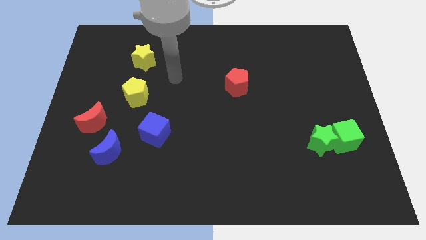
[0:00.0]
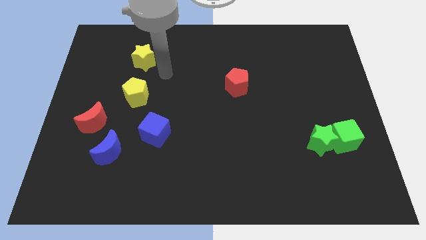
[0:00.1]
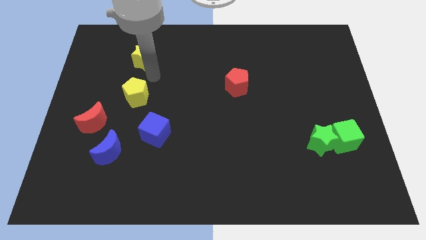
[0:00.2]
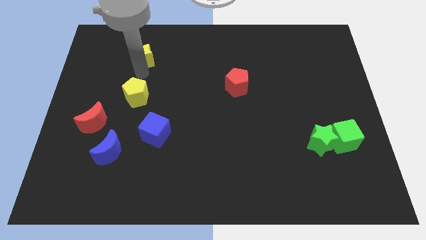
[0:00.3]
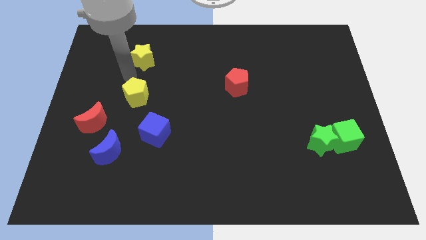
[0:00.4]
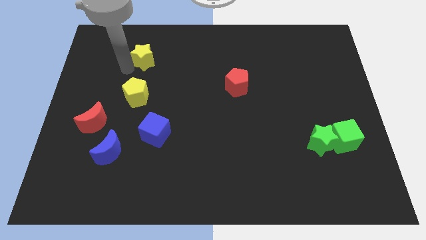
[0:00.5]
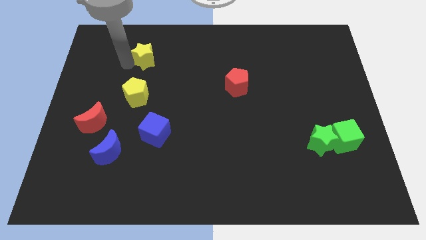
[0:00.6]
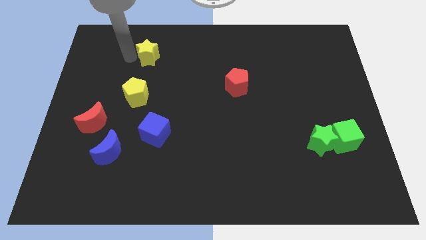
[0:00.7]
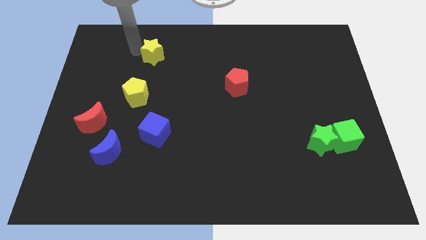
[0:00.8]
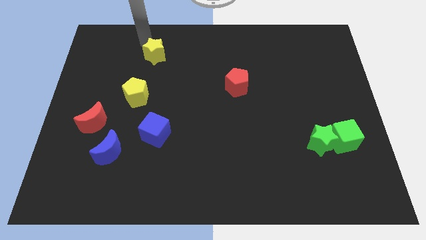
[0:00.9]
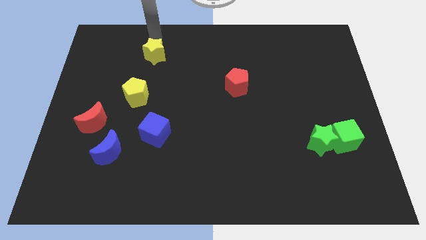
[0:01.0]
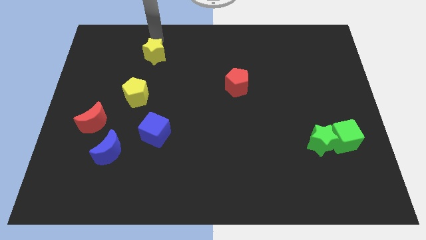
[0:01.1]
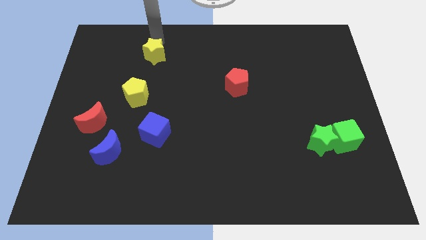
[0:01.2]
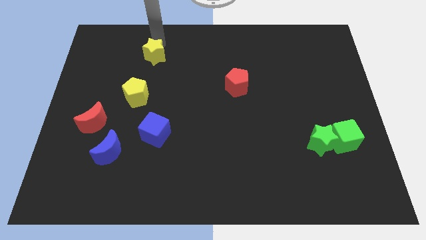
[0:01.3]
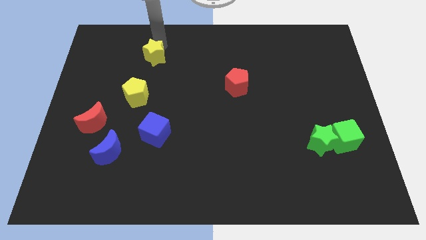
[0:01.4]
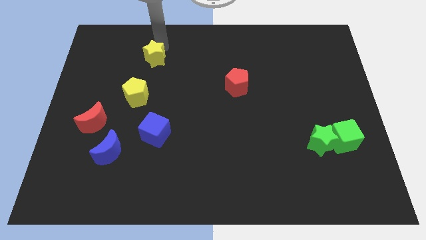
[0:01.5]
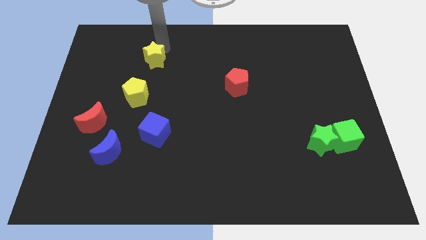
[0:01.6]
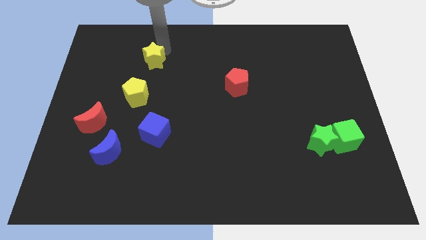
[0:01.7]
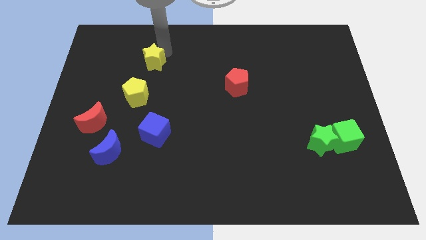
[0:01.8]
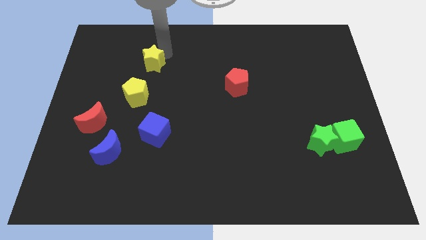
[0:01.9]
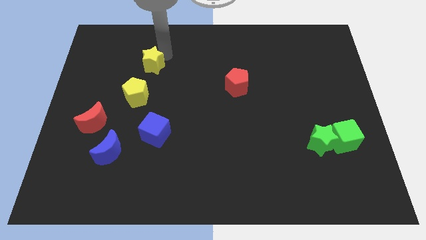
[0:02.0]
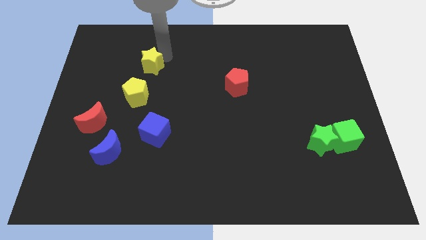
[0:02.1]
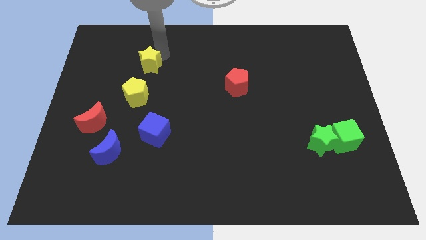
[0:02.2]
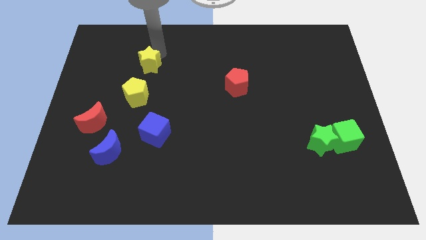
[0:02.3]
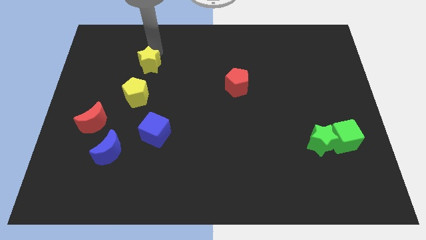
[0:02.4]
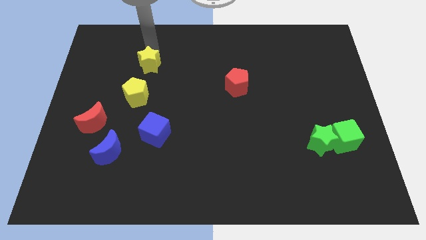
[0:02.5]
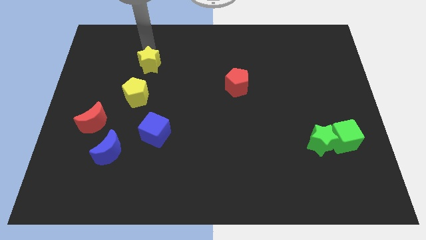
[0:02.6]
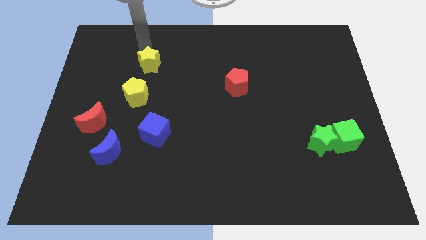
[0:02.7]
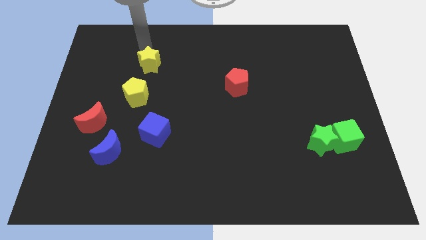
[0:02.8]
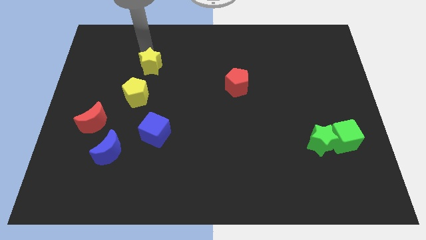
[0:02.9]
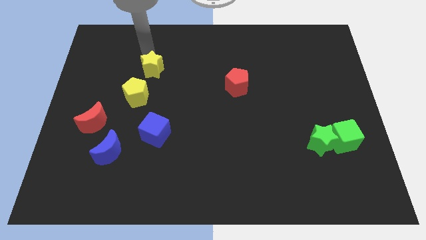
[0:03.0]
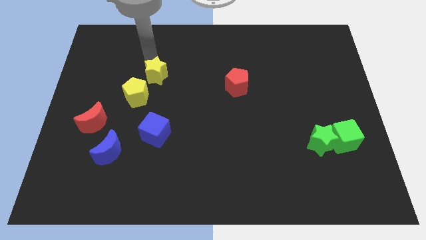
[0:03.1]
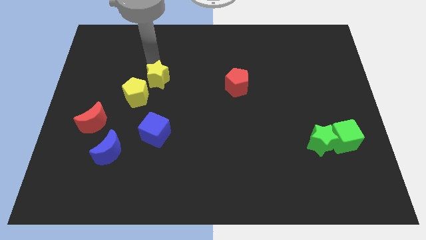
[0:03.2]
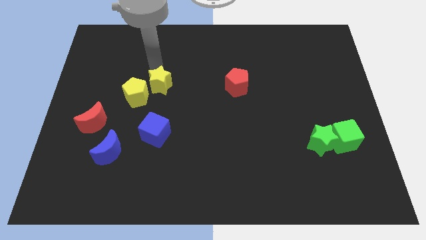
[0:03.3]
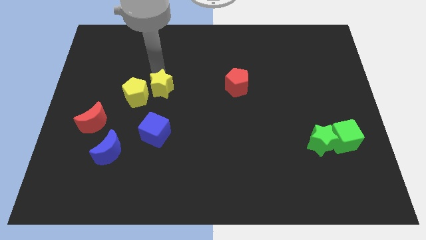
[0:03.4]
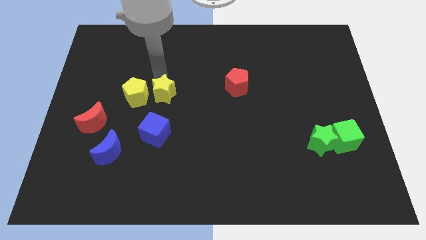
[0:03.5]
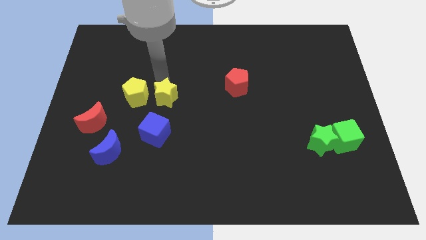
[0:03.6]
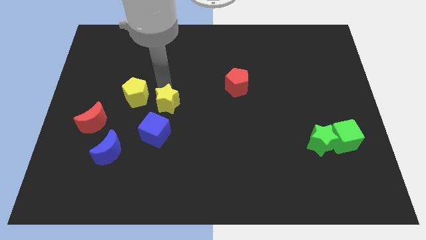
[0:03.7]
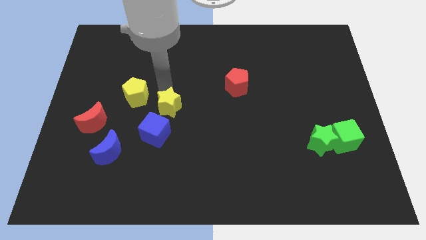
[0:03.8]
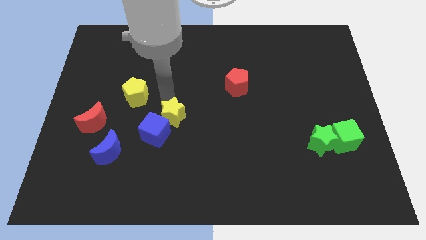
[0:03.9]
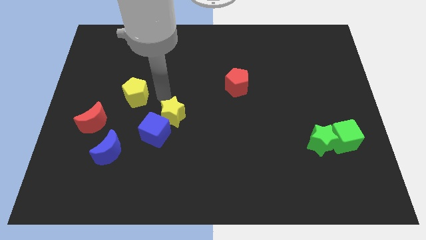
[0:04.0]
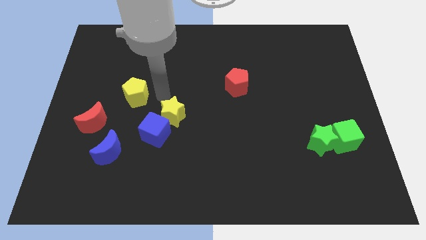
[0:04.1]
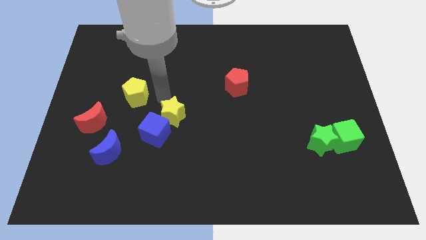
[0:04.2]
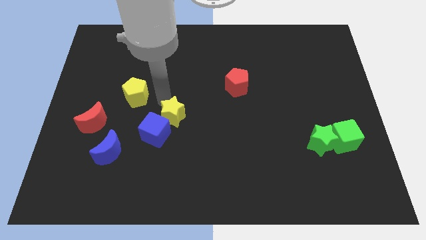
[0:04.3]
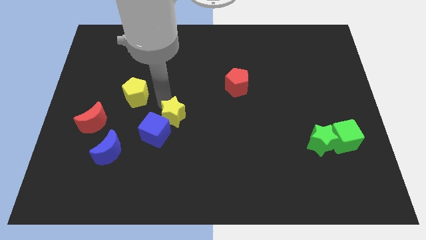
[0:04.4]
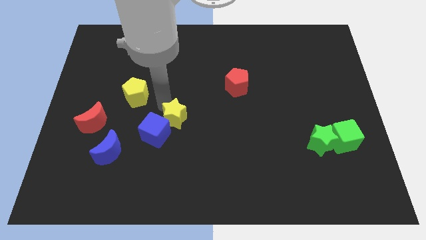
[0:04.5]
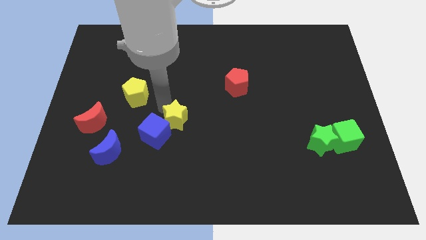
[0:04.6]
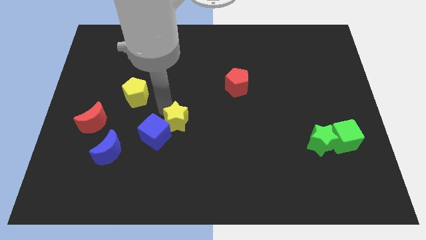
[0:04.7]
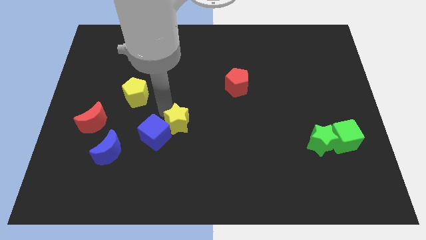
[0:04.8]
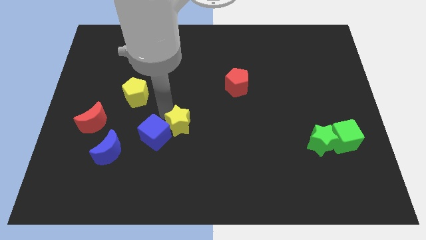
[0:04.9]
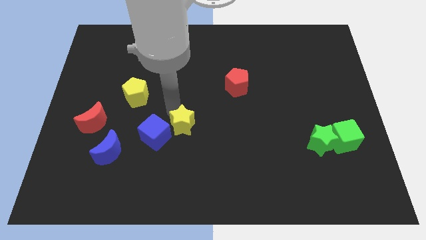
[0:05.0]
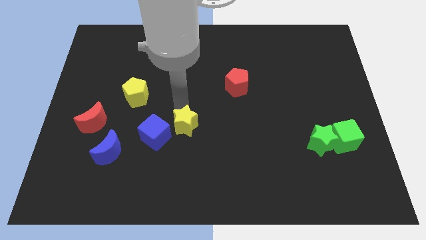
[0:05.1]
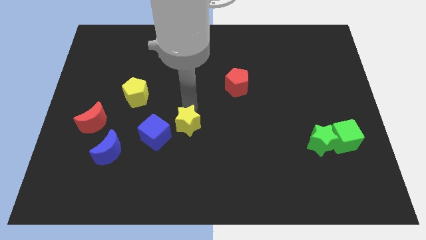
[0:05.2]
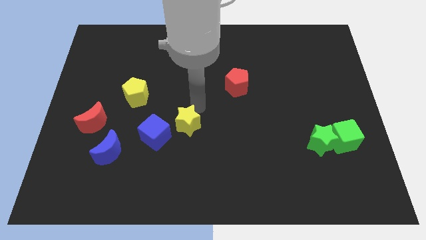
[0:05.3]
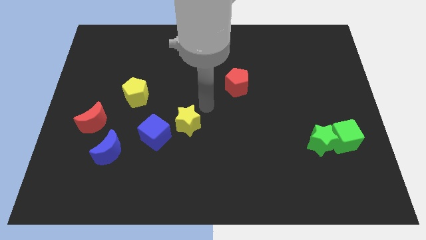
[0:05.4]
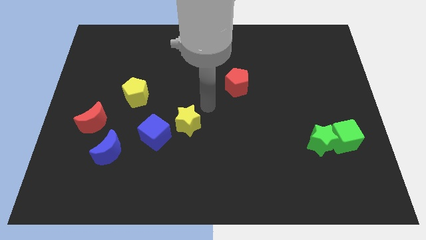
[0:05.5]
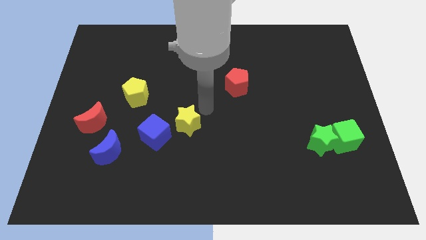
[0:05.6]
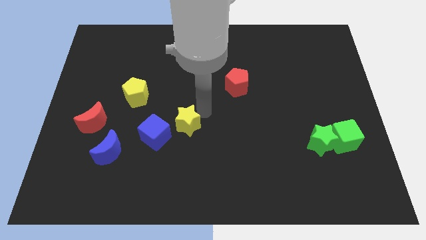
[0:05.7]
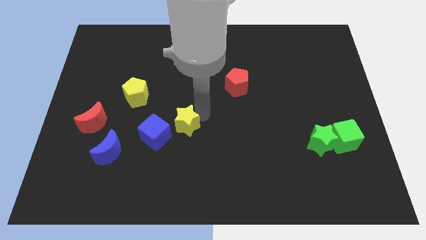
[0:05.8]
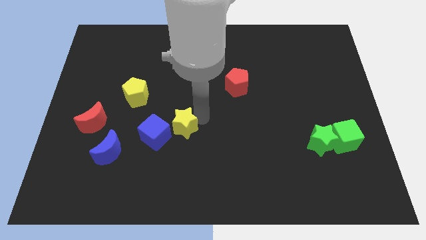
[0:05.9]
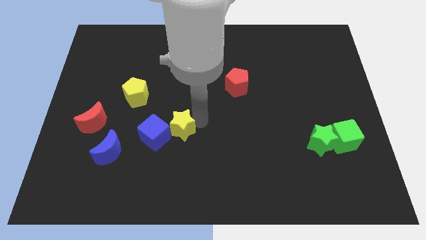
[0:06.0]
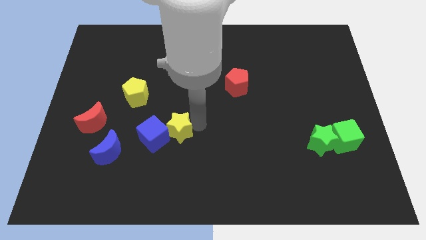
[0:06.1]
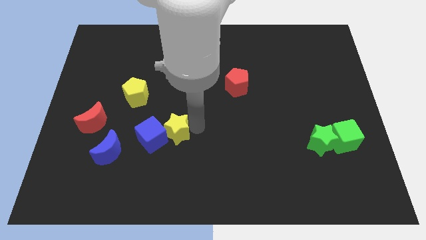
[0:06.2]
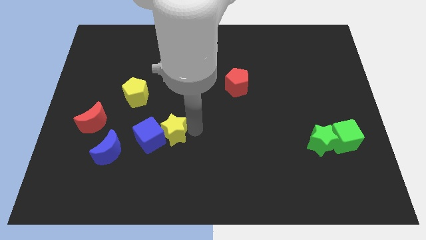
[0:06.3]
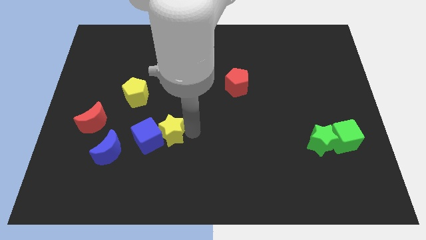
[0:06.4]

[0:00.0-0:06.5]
move the yellow star to the right of the blue moon

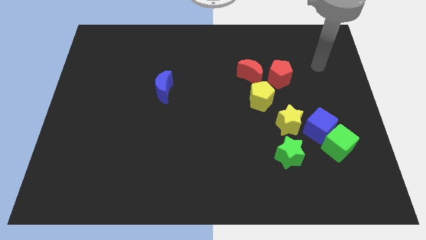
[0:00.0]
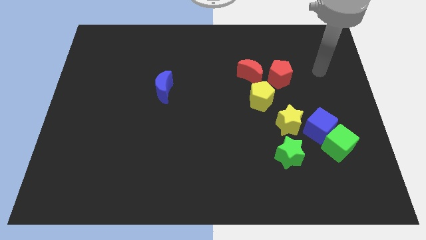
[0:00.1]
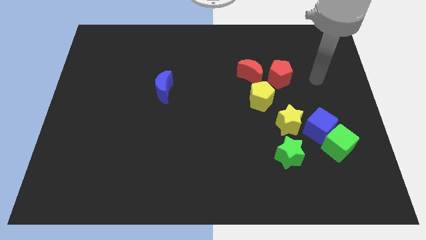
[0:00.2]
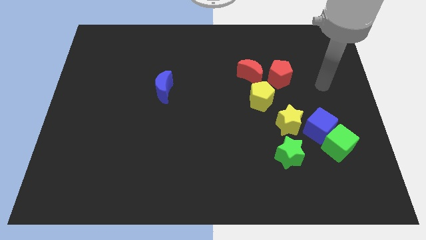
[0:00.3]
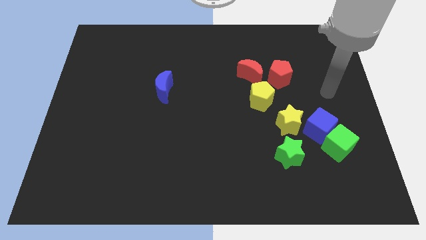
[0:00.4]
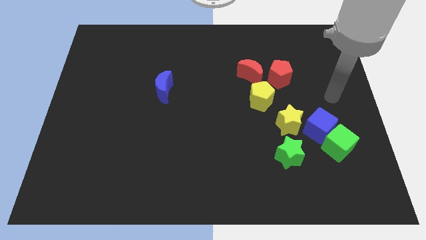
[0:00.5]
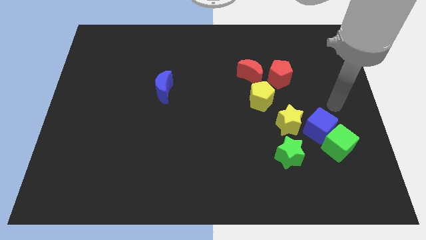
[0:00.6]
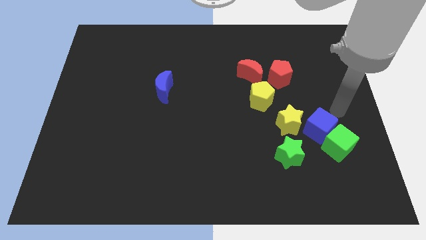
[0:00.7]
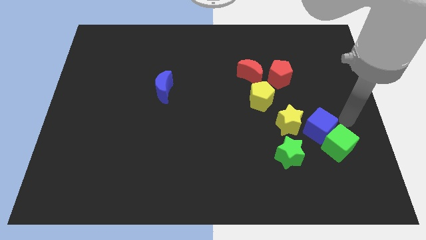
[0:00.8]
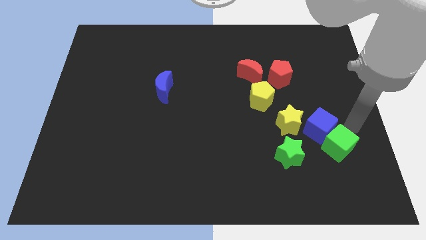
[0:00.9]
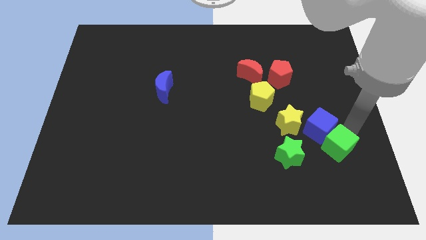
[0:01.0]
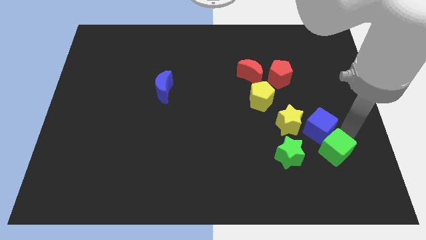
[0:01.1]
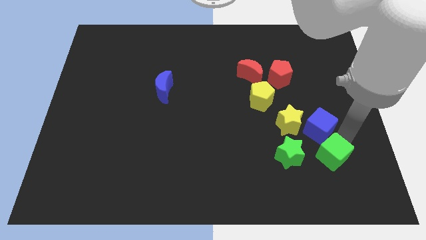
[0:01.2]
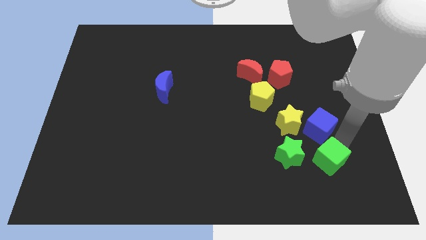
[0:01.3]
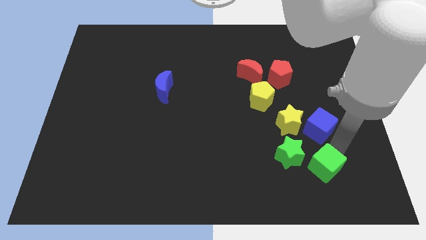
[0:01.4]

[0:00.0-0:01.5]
put the green cube to the bottom right of the green star
